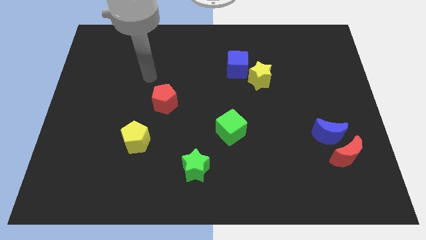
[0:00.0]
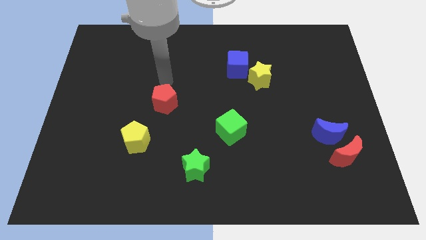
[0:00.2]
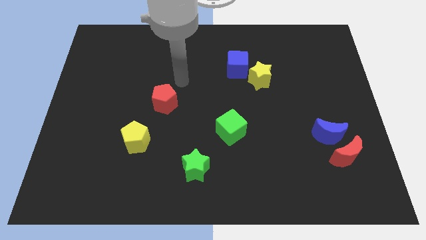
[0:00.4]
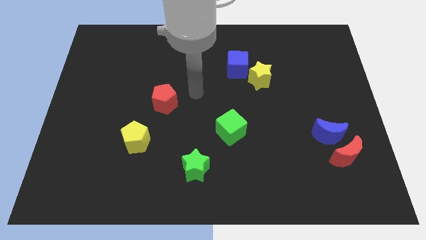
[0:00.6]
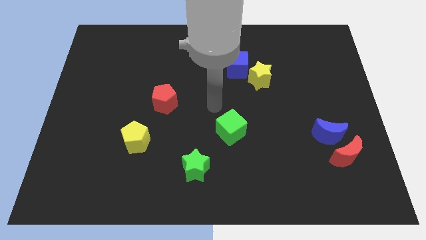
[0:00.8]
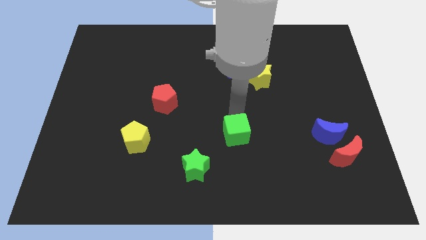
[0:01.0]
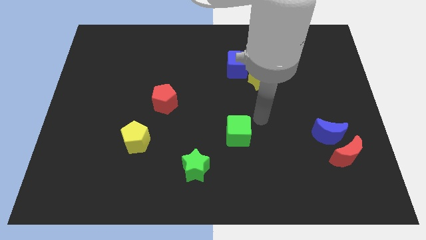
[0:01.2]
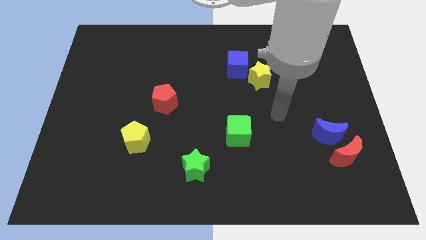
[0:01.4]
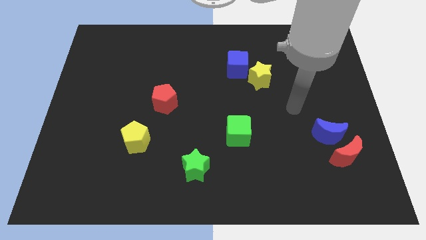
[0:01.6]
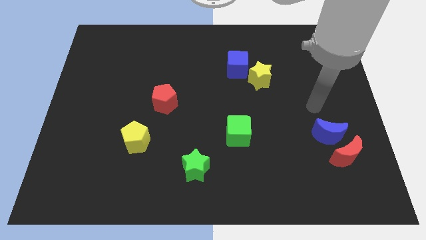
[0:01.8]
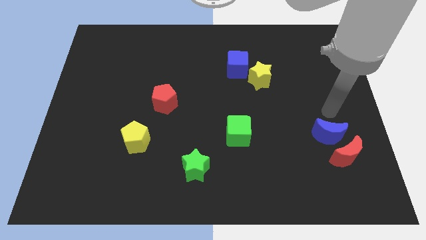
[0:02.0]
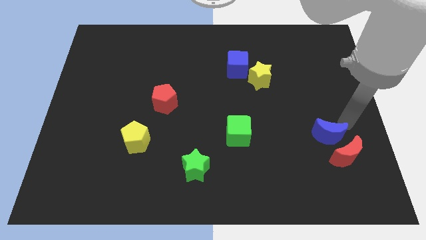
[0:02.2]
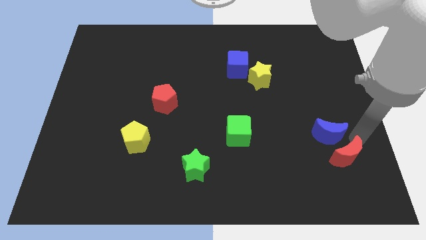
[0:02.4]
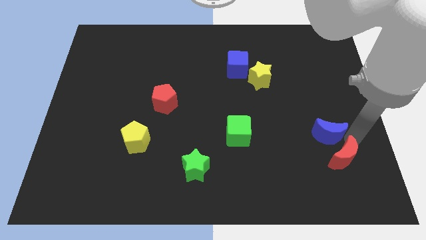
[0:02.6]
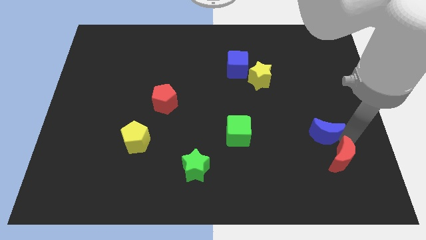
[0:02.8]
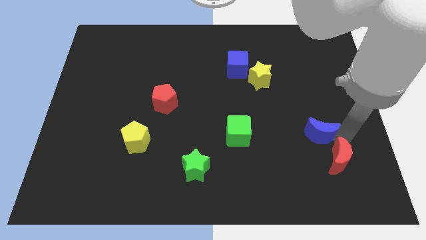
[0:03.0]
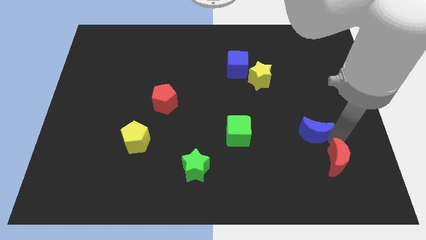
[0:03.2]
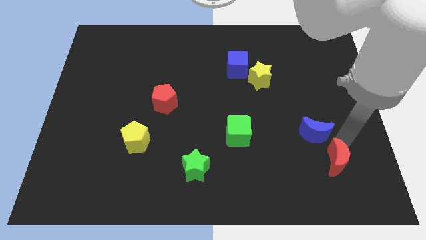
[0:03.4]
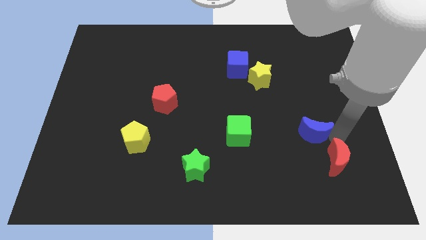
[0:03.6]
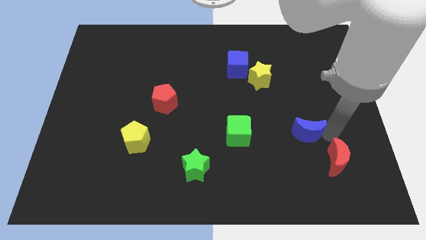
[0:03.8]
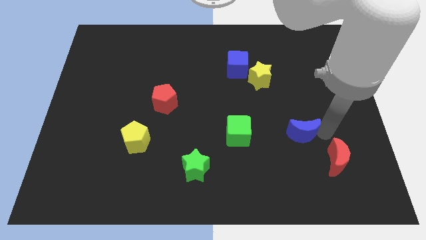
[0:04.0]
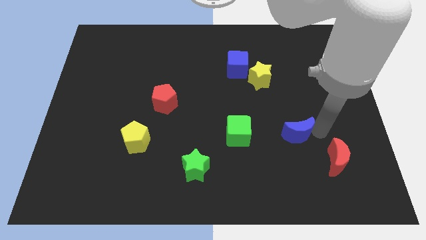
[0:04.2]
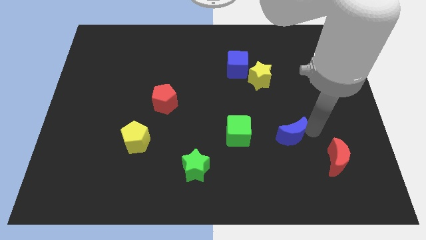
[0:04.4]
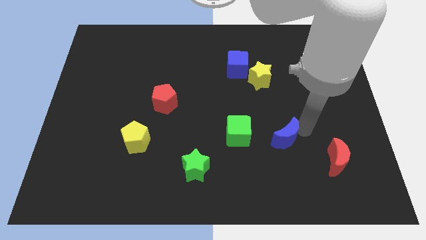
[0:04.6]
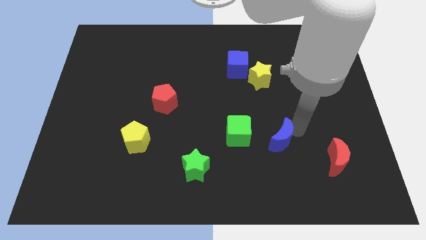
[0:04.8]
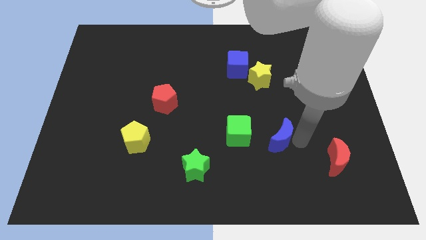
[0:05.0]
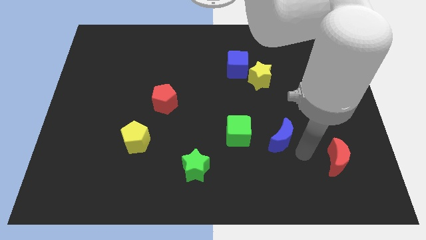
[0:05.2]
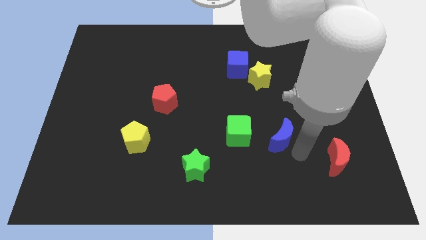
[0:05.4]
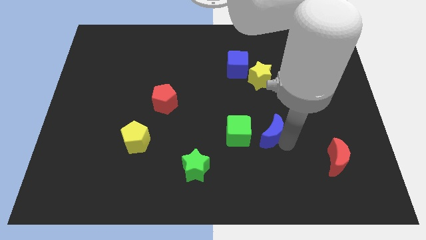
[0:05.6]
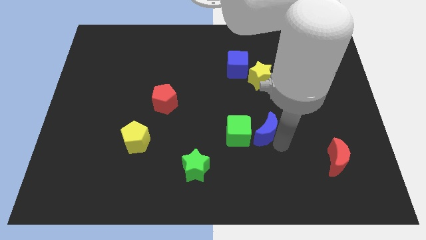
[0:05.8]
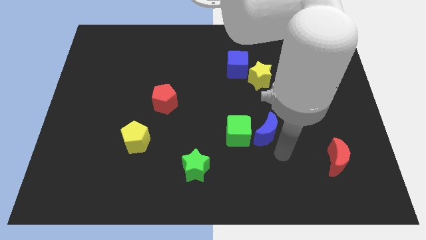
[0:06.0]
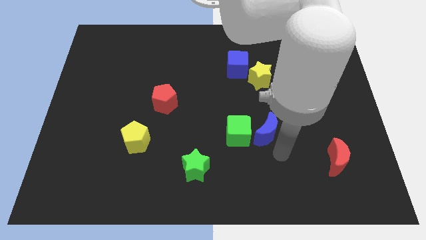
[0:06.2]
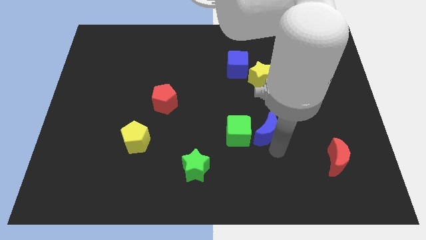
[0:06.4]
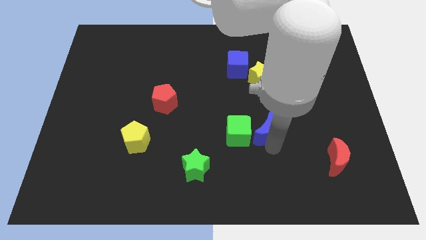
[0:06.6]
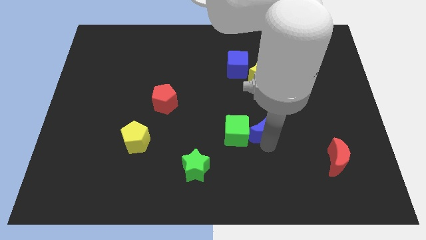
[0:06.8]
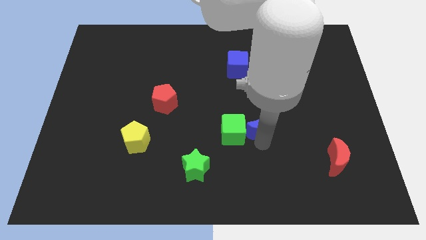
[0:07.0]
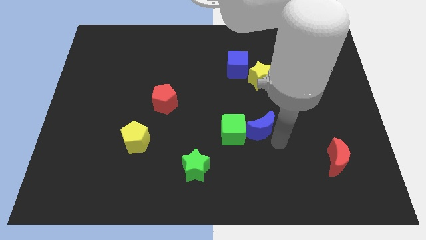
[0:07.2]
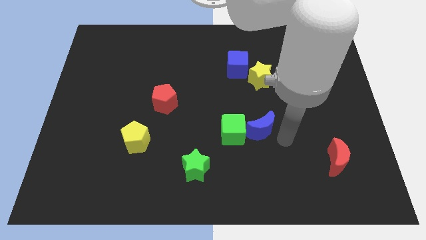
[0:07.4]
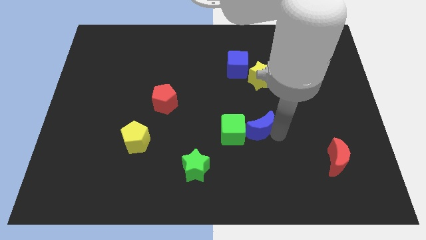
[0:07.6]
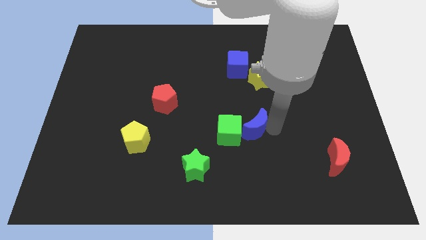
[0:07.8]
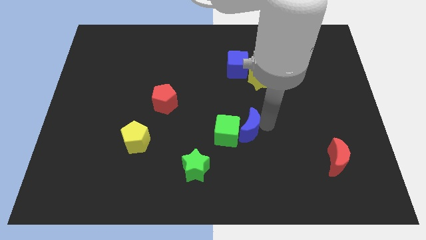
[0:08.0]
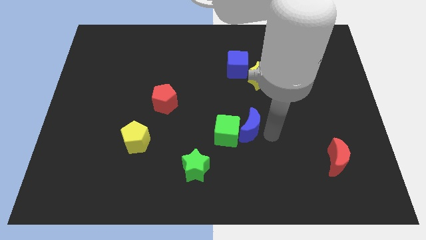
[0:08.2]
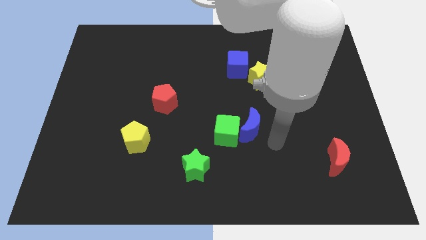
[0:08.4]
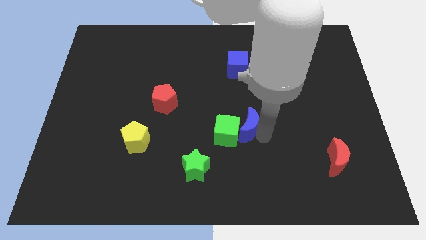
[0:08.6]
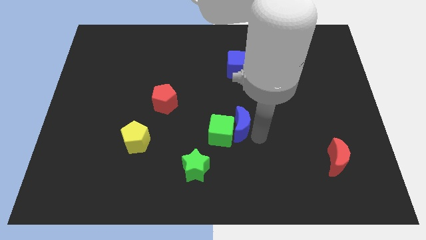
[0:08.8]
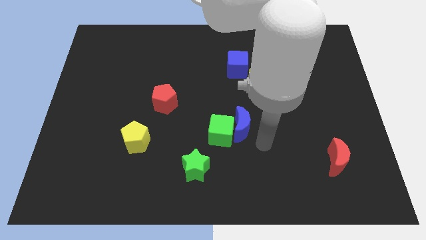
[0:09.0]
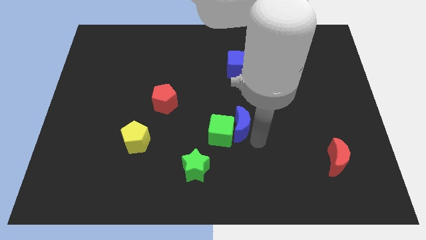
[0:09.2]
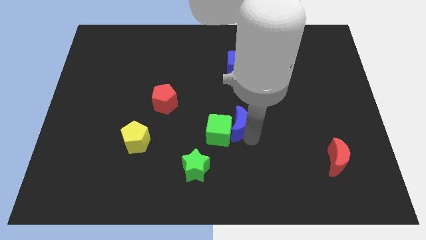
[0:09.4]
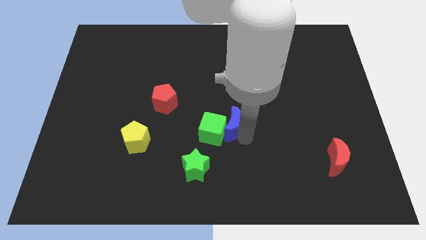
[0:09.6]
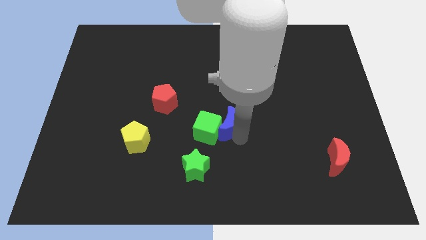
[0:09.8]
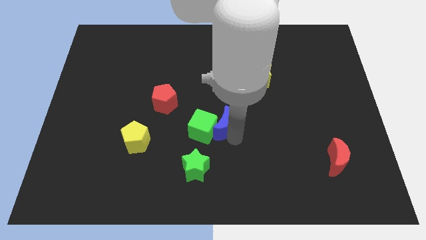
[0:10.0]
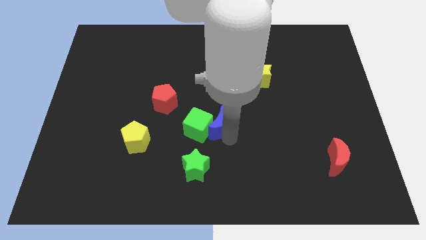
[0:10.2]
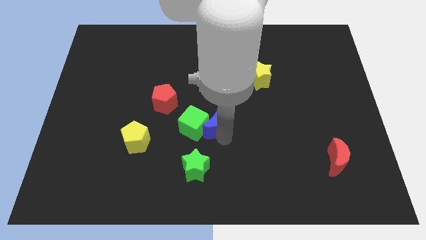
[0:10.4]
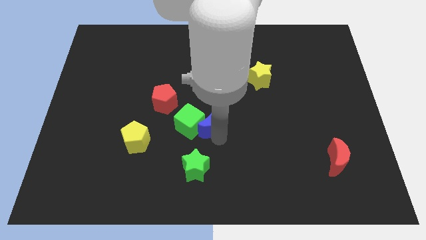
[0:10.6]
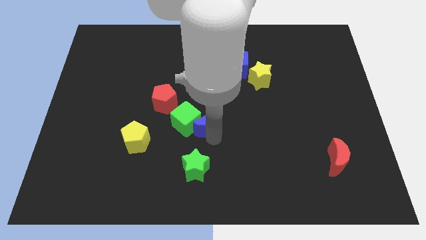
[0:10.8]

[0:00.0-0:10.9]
slide the blue moon to the bottom right side of the red pentagon

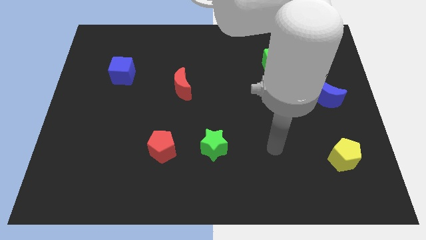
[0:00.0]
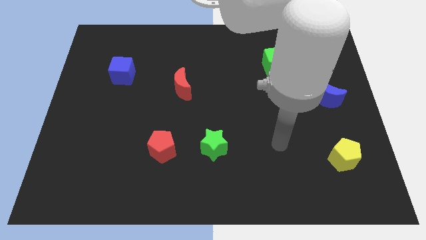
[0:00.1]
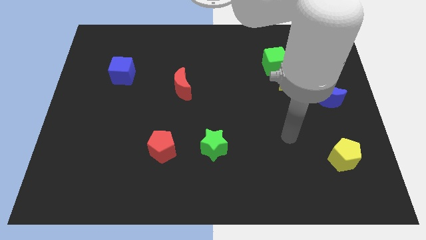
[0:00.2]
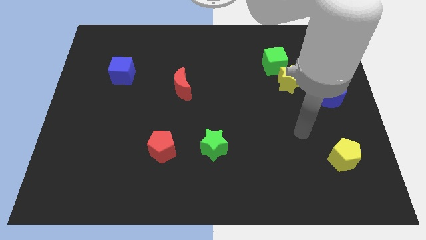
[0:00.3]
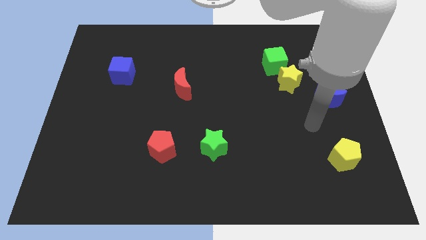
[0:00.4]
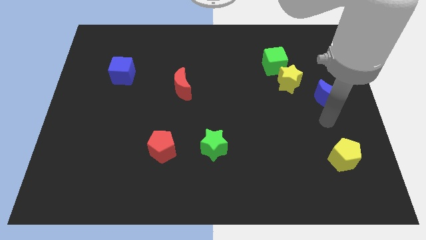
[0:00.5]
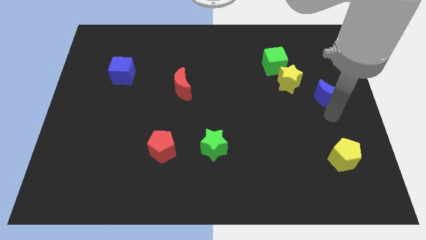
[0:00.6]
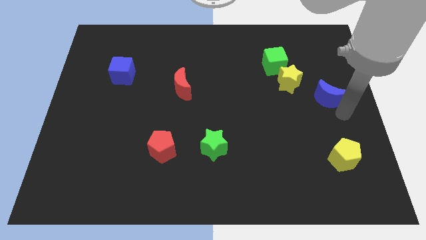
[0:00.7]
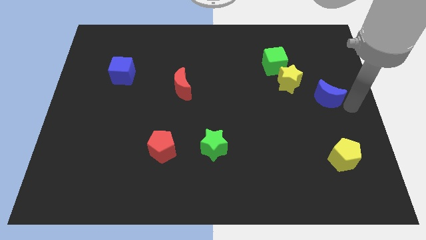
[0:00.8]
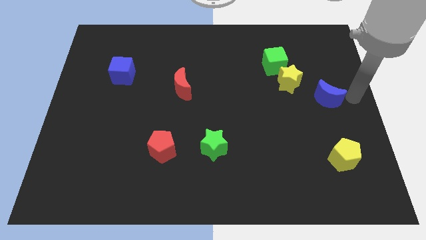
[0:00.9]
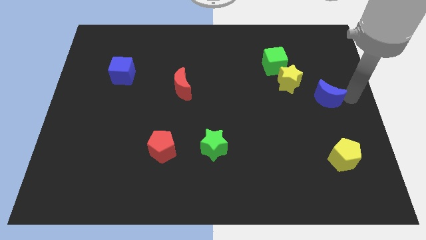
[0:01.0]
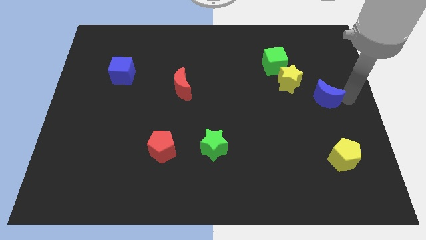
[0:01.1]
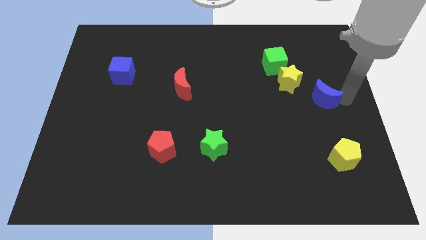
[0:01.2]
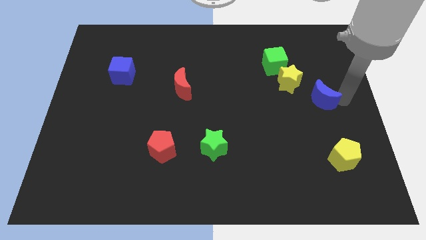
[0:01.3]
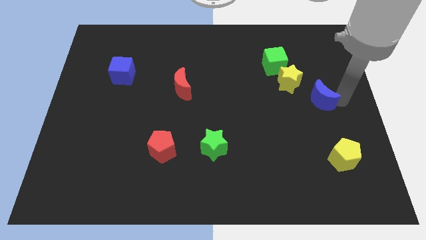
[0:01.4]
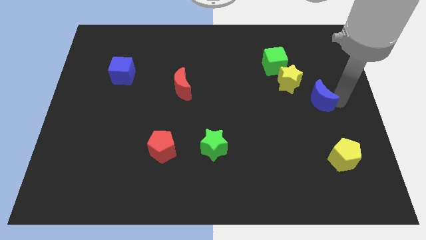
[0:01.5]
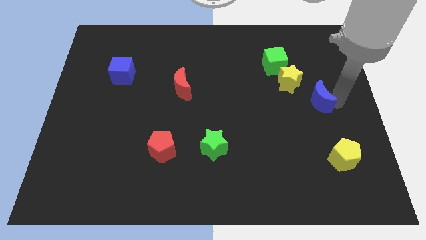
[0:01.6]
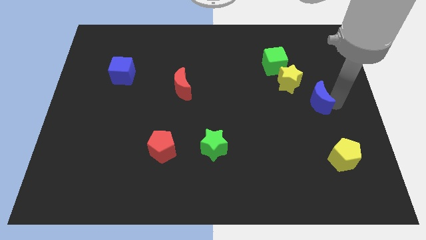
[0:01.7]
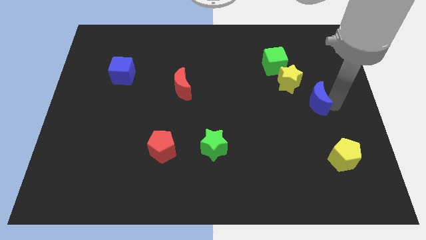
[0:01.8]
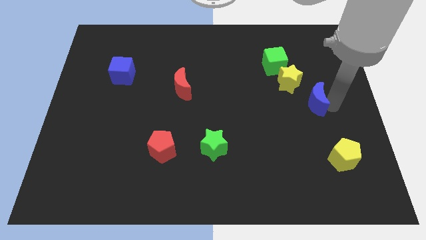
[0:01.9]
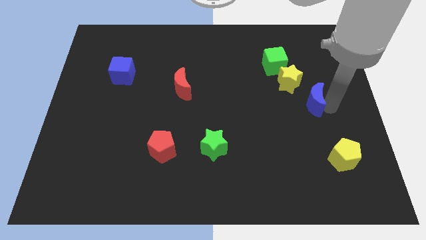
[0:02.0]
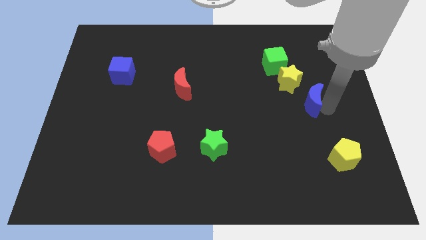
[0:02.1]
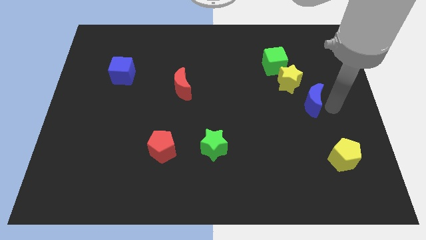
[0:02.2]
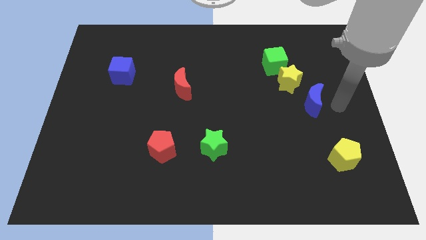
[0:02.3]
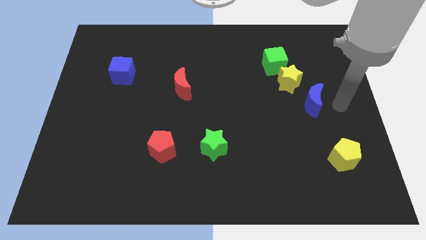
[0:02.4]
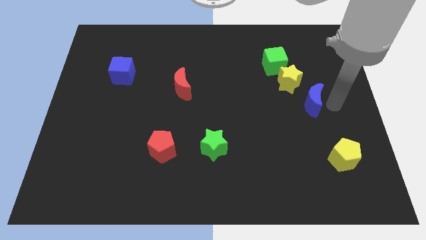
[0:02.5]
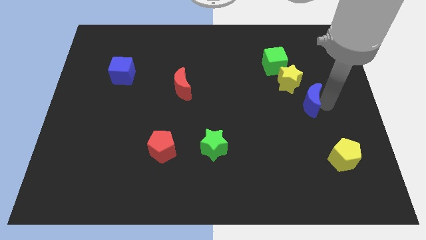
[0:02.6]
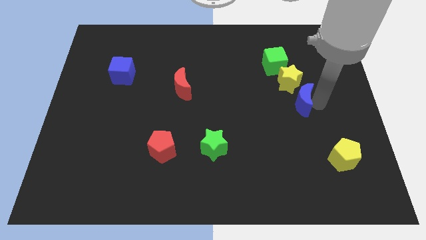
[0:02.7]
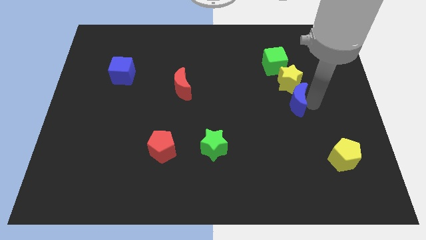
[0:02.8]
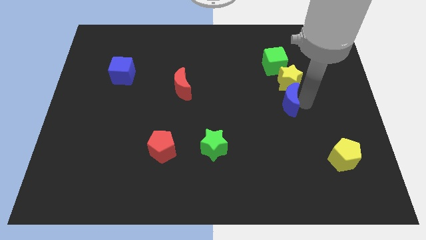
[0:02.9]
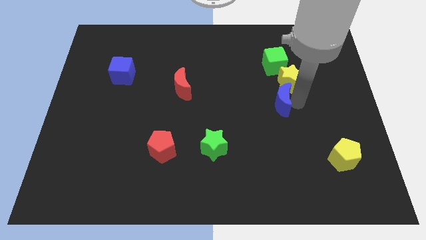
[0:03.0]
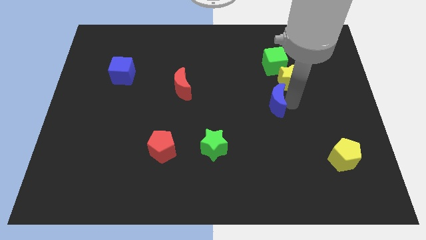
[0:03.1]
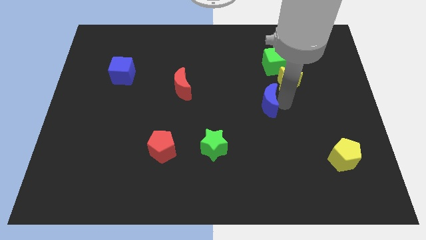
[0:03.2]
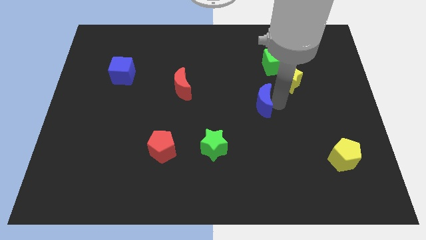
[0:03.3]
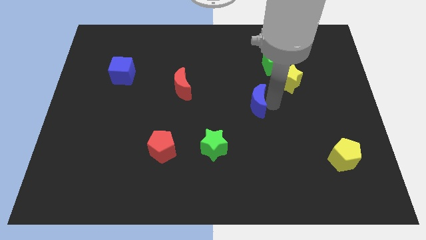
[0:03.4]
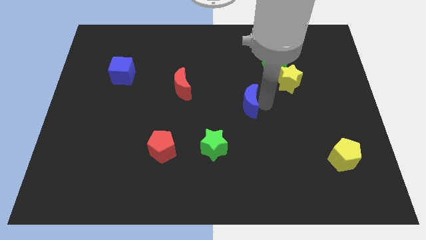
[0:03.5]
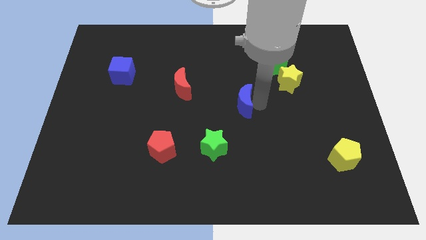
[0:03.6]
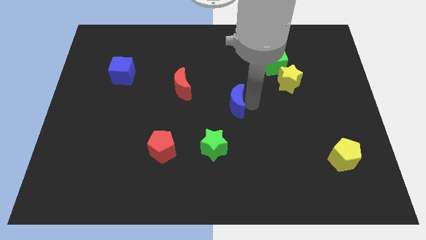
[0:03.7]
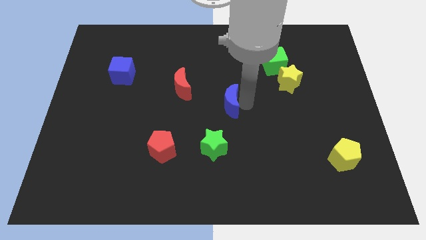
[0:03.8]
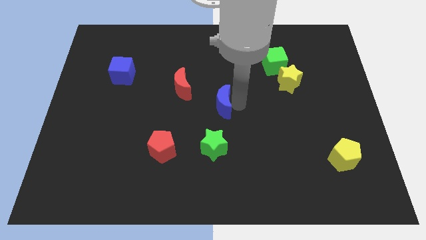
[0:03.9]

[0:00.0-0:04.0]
move the blue moon to the bottom right of the red moon
